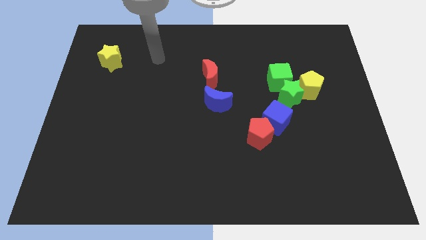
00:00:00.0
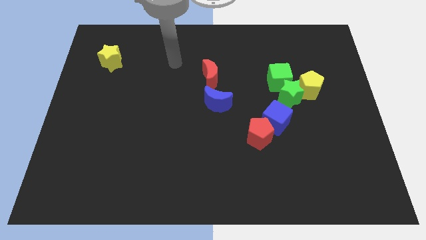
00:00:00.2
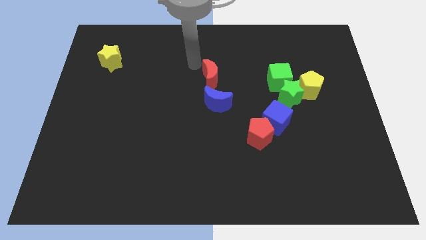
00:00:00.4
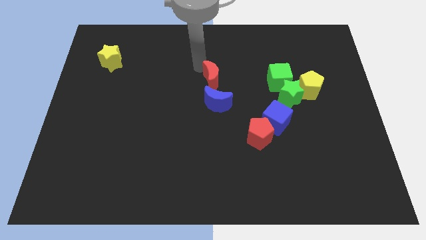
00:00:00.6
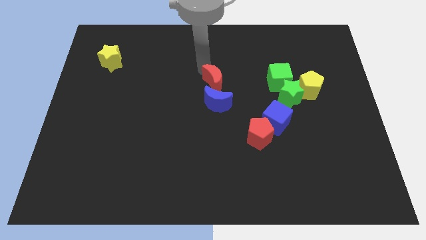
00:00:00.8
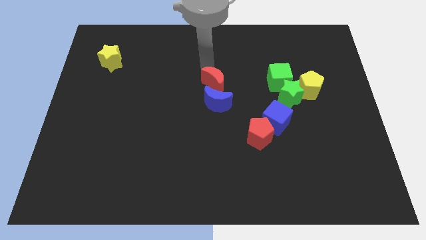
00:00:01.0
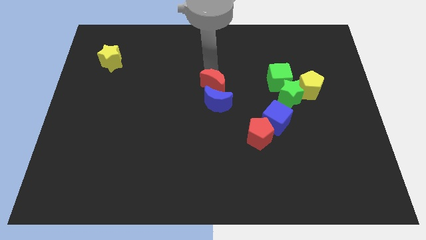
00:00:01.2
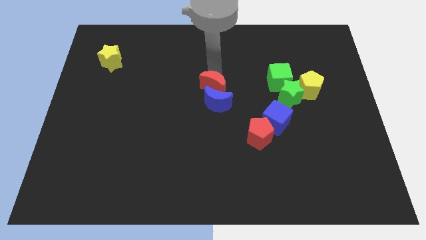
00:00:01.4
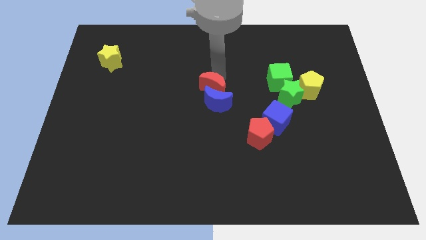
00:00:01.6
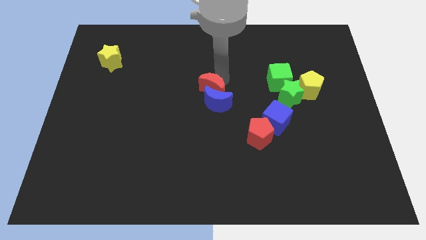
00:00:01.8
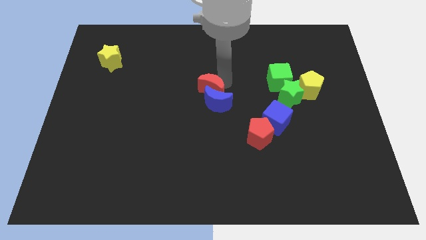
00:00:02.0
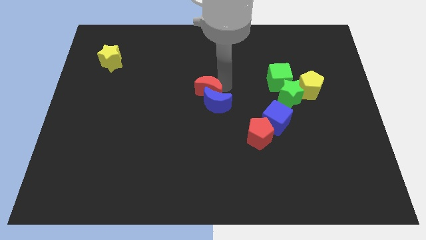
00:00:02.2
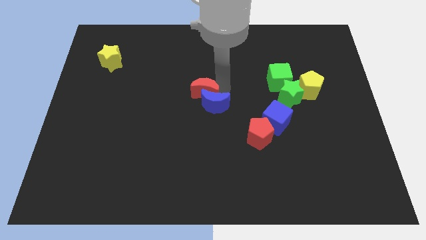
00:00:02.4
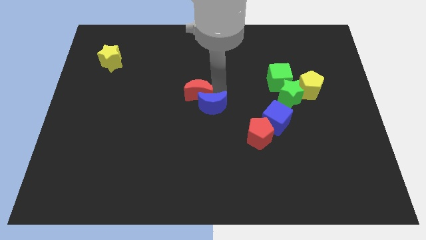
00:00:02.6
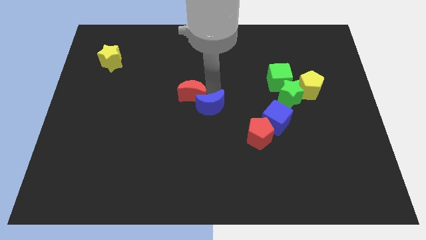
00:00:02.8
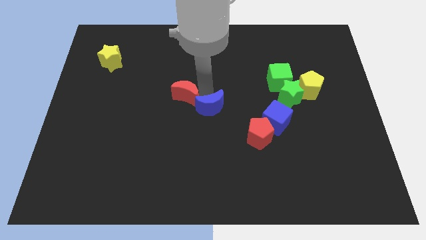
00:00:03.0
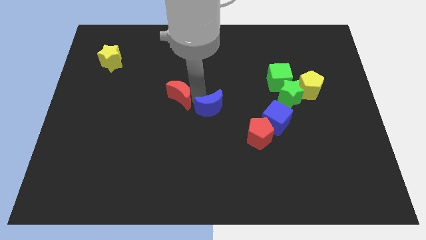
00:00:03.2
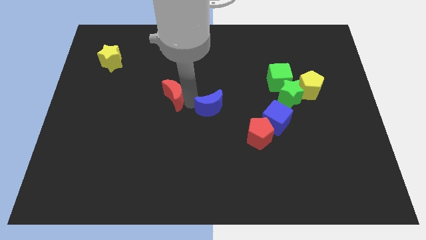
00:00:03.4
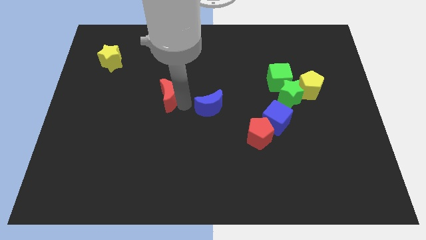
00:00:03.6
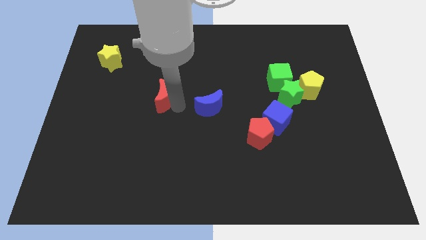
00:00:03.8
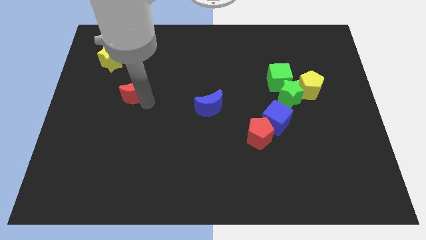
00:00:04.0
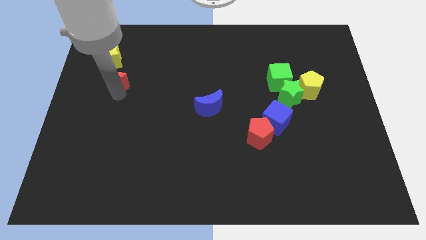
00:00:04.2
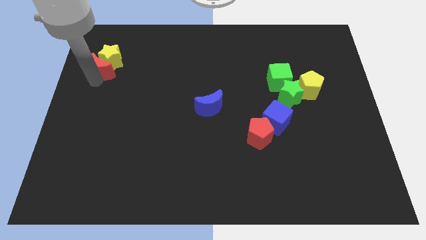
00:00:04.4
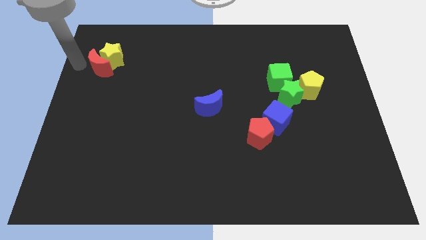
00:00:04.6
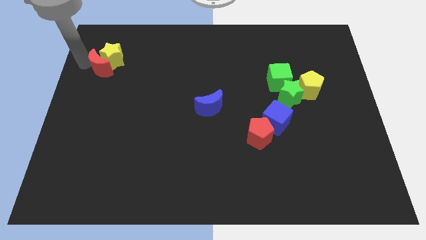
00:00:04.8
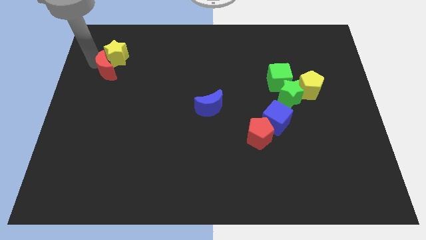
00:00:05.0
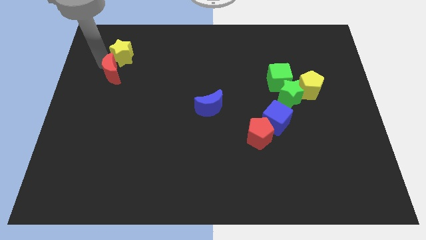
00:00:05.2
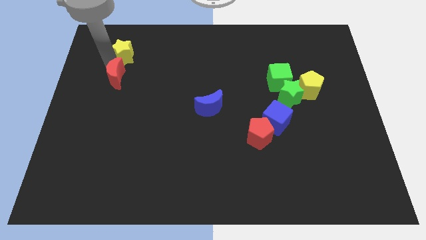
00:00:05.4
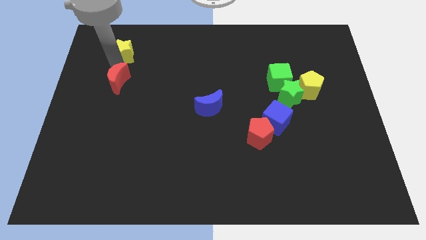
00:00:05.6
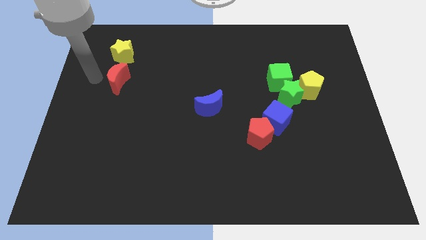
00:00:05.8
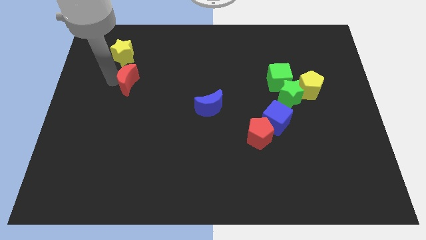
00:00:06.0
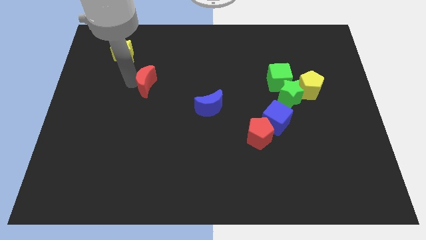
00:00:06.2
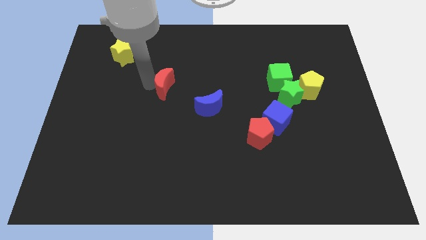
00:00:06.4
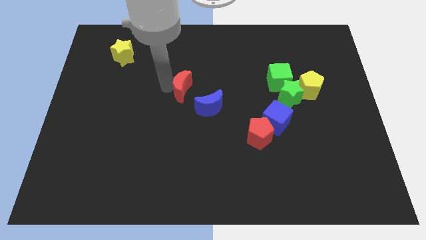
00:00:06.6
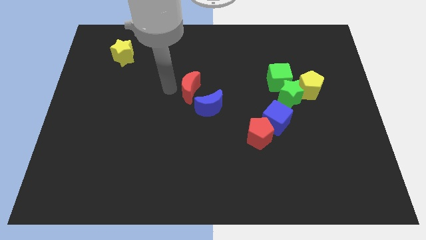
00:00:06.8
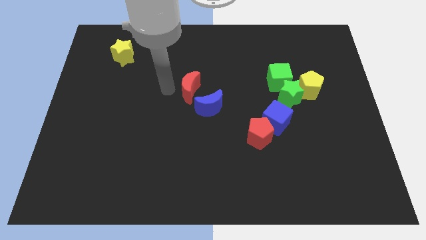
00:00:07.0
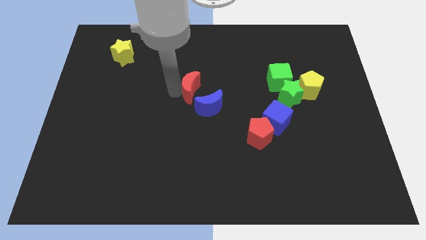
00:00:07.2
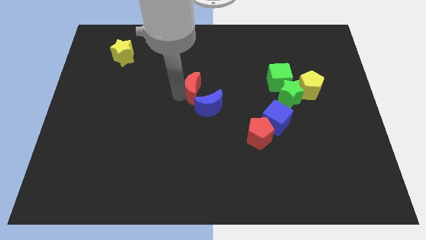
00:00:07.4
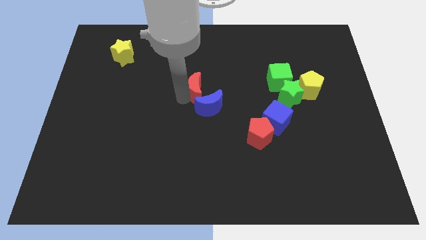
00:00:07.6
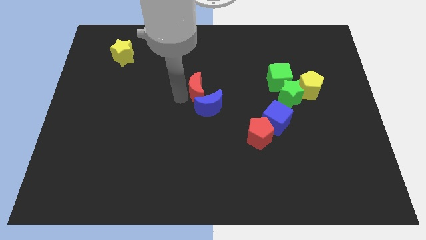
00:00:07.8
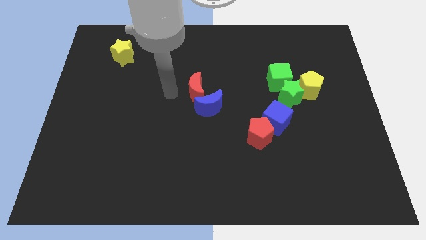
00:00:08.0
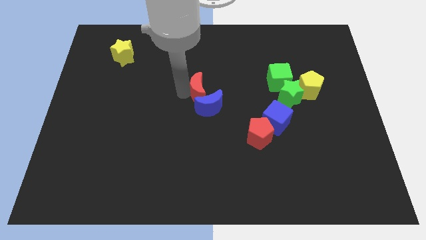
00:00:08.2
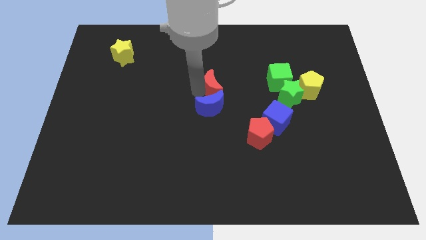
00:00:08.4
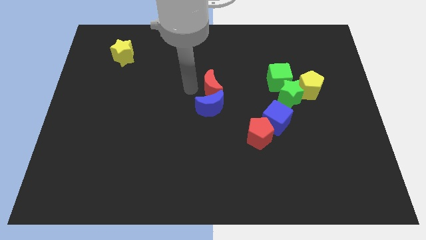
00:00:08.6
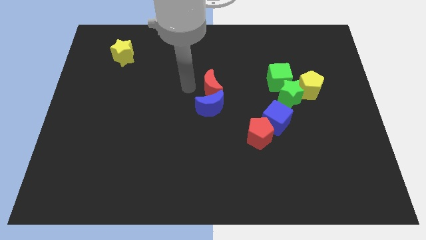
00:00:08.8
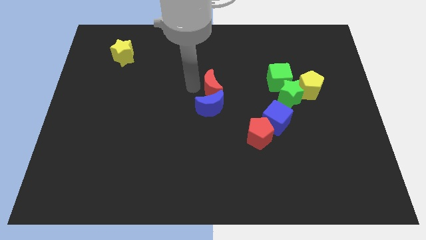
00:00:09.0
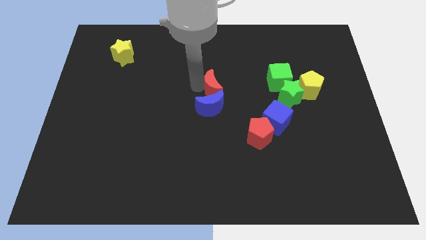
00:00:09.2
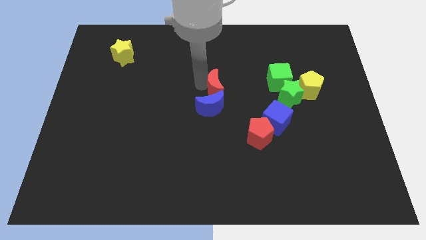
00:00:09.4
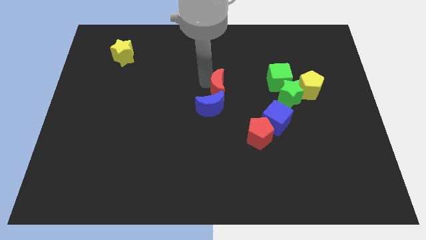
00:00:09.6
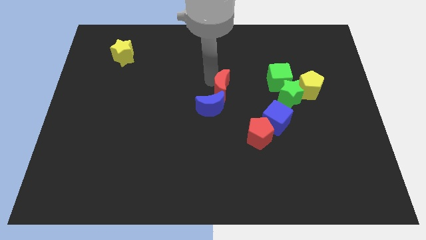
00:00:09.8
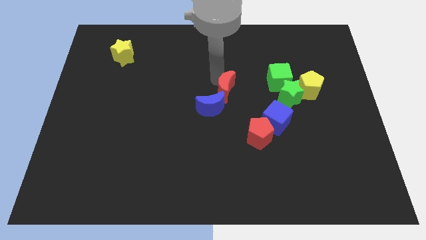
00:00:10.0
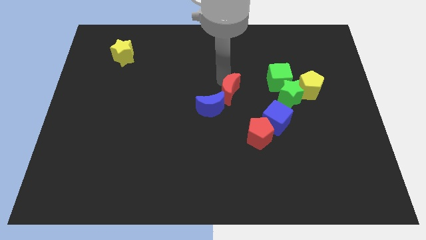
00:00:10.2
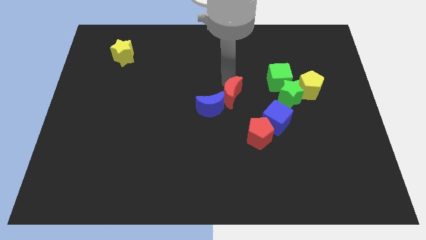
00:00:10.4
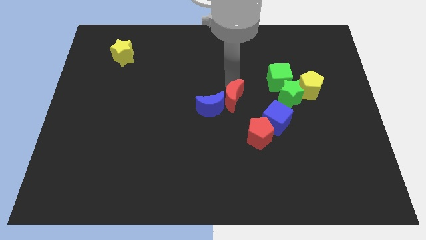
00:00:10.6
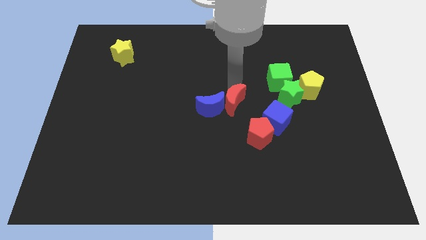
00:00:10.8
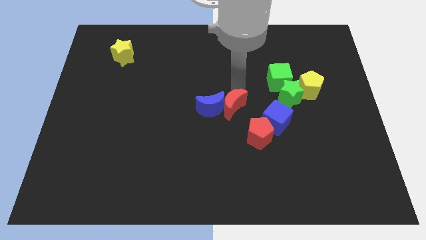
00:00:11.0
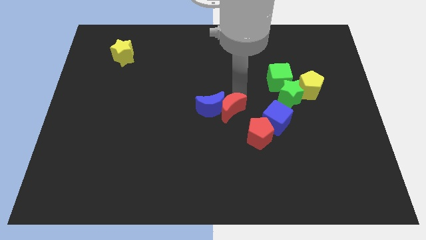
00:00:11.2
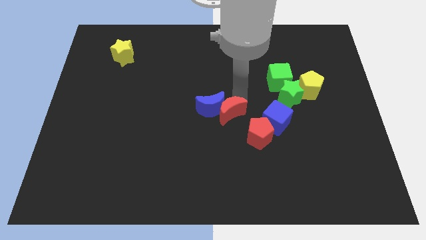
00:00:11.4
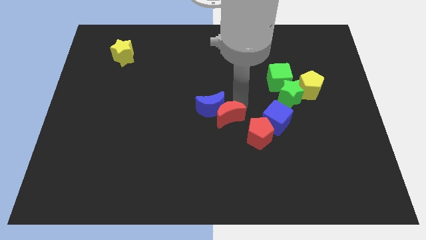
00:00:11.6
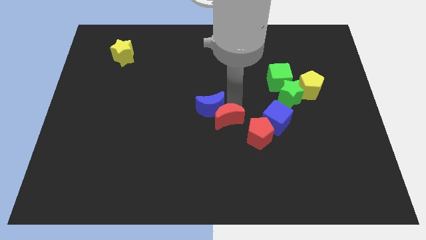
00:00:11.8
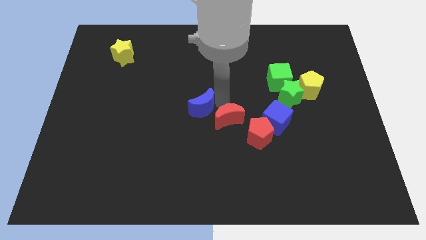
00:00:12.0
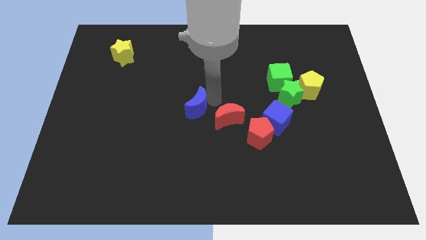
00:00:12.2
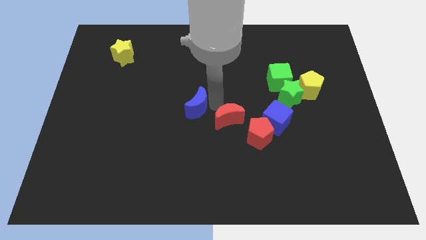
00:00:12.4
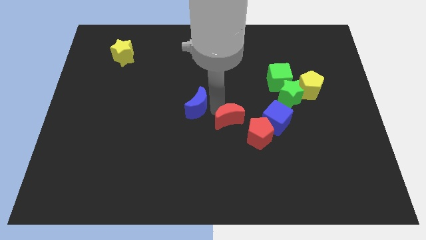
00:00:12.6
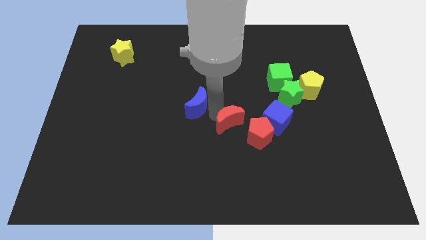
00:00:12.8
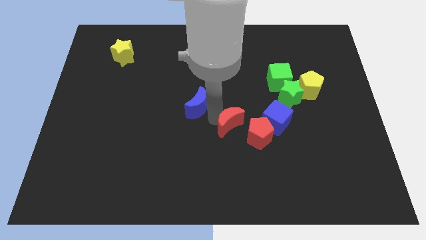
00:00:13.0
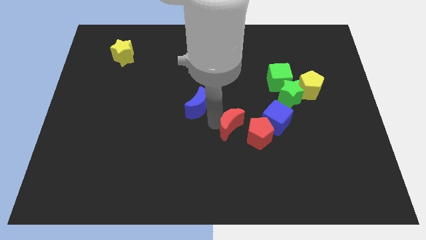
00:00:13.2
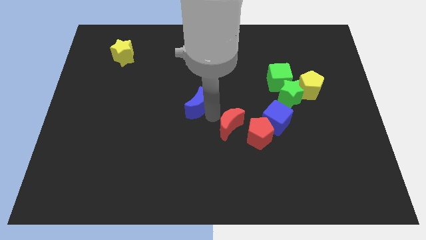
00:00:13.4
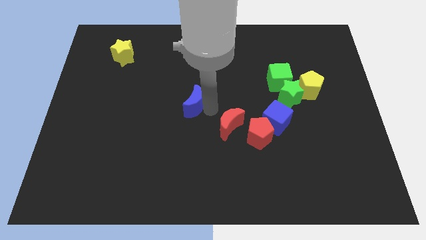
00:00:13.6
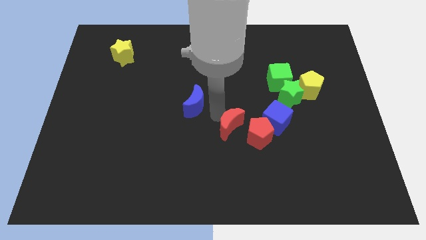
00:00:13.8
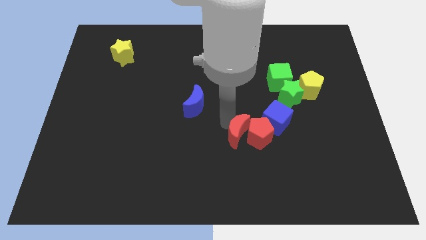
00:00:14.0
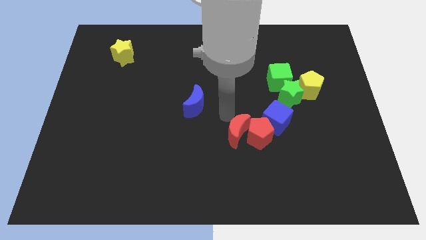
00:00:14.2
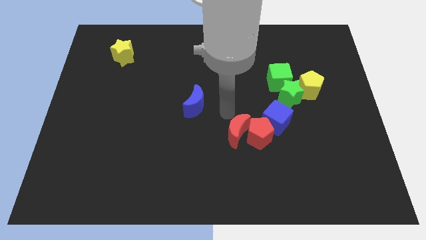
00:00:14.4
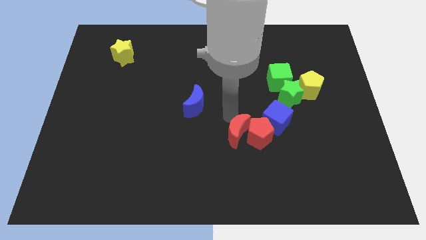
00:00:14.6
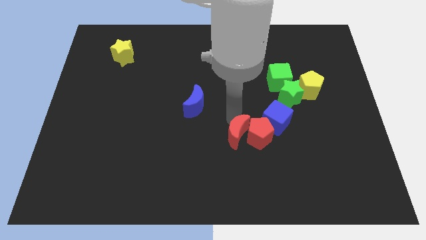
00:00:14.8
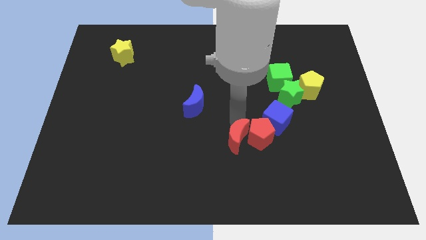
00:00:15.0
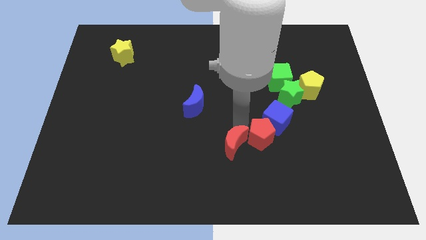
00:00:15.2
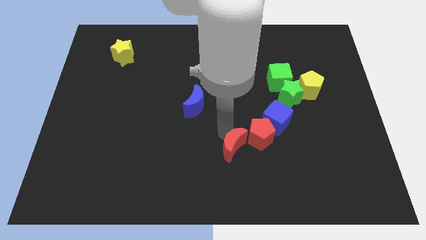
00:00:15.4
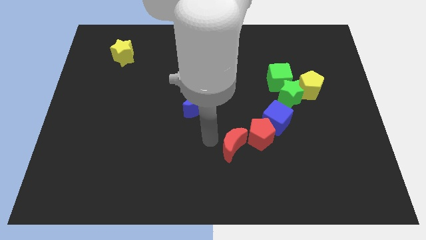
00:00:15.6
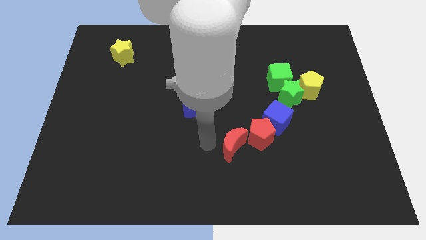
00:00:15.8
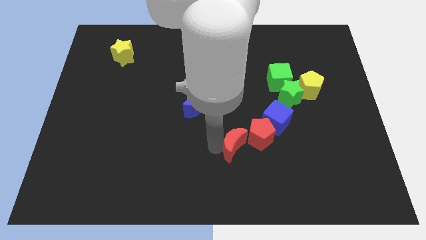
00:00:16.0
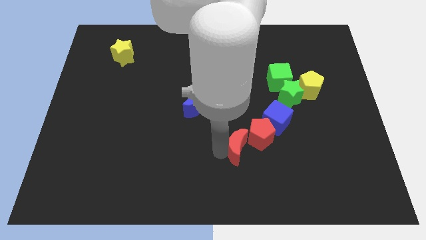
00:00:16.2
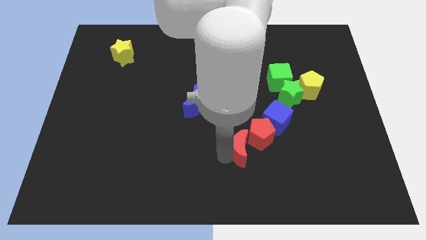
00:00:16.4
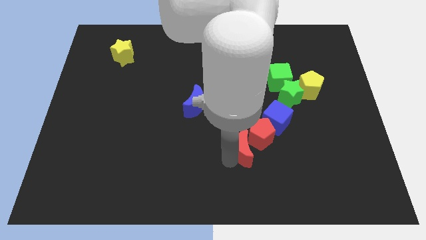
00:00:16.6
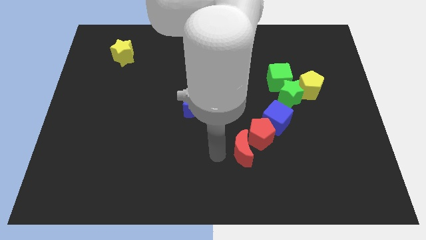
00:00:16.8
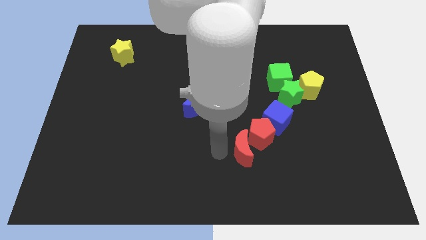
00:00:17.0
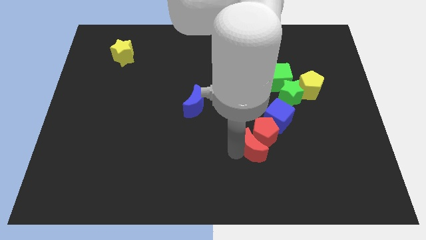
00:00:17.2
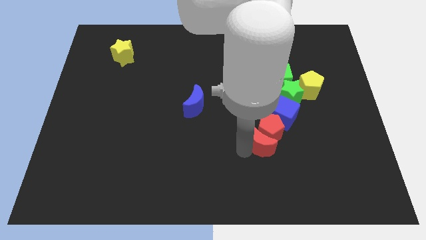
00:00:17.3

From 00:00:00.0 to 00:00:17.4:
slide the red moon diagonally down and right
